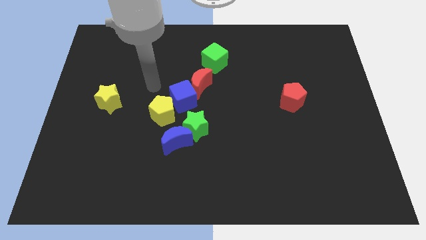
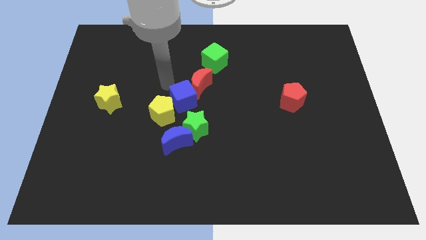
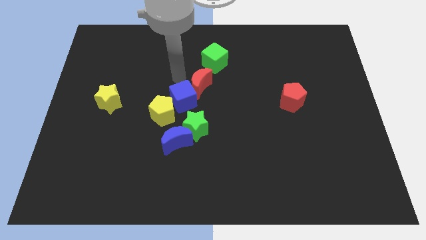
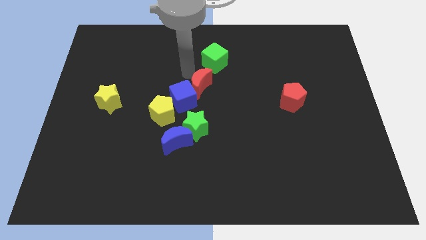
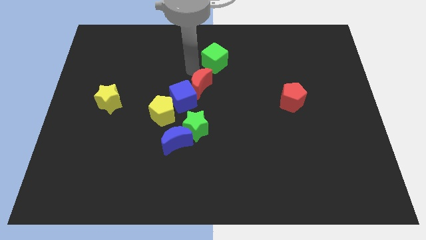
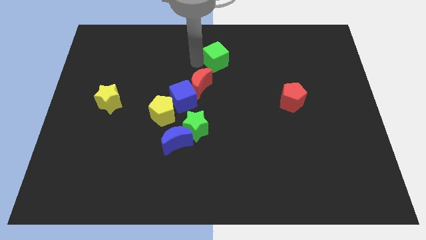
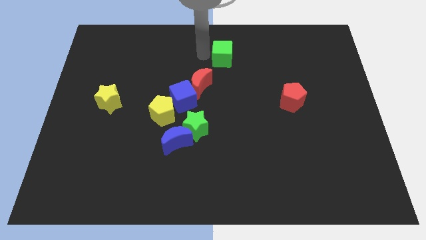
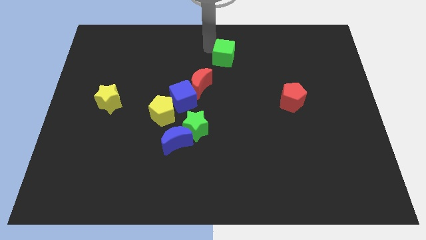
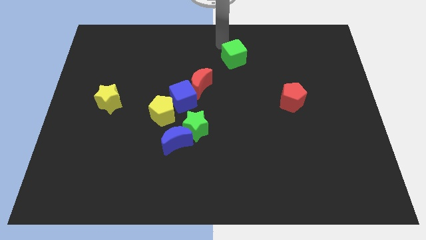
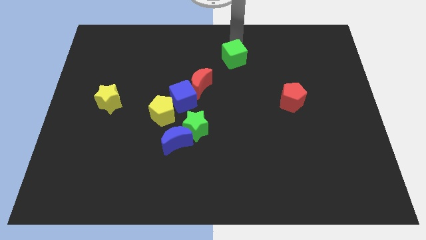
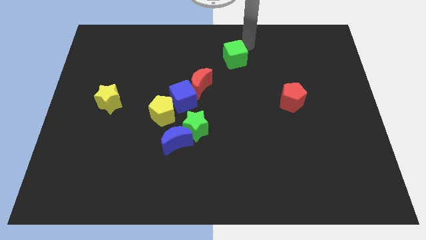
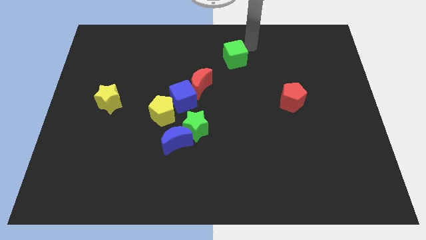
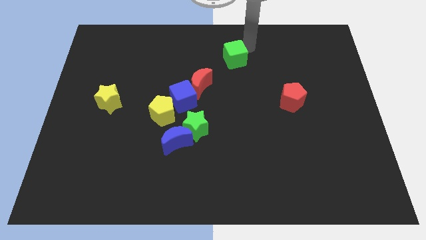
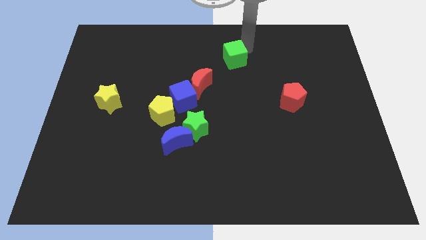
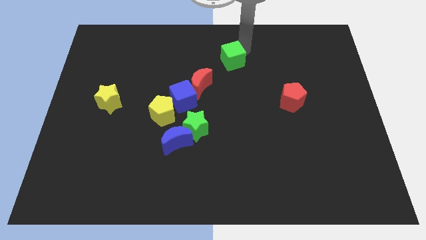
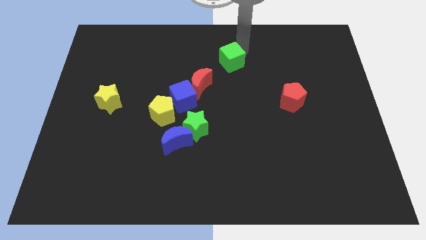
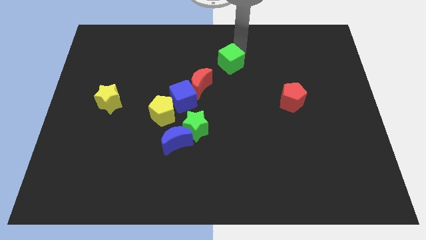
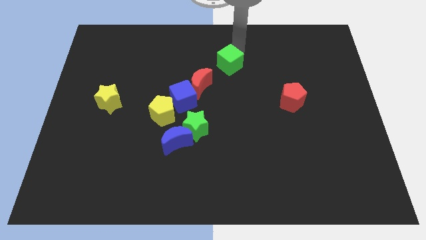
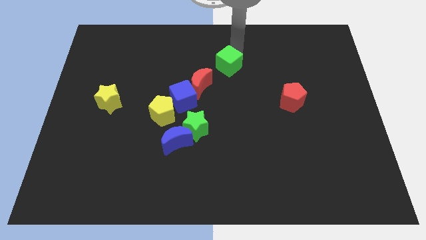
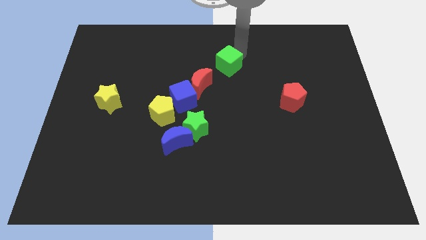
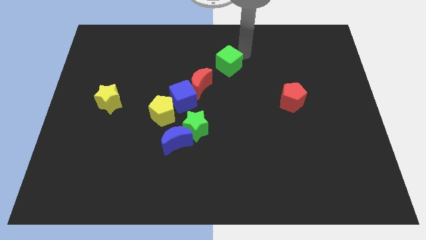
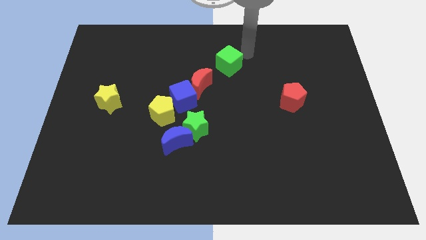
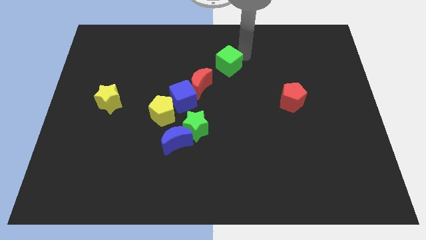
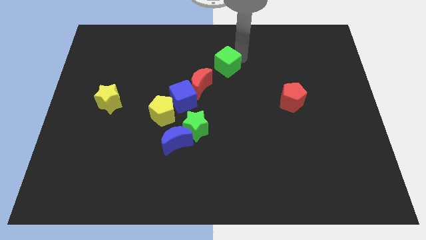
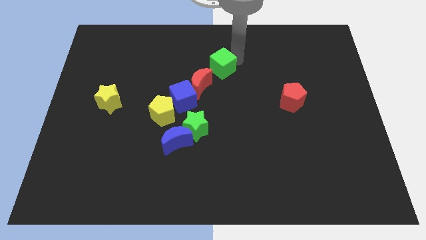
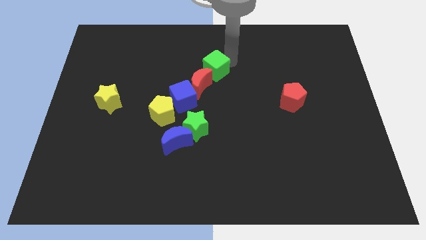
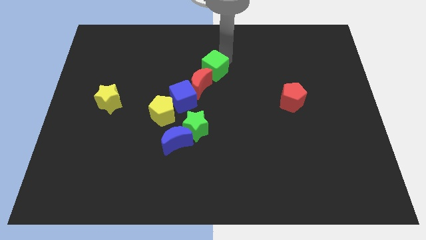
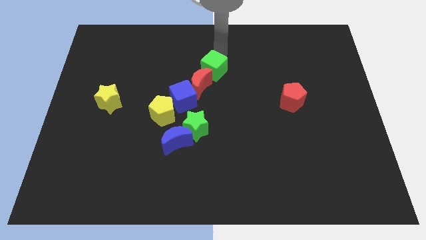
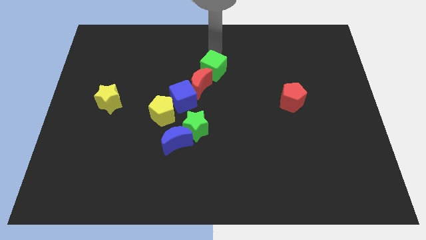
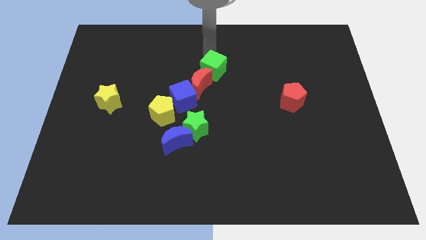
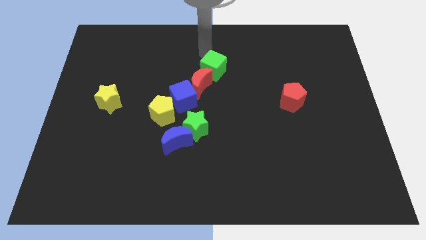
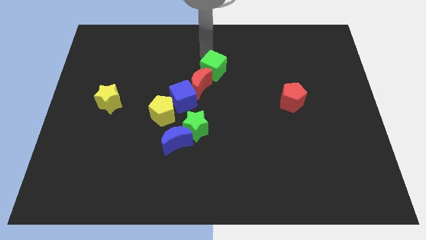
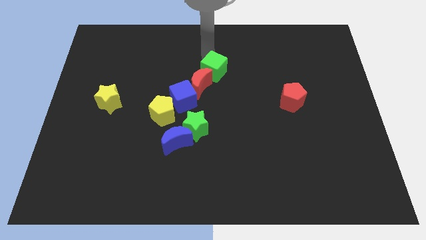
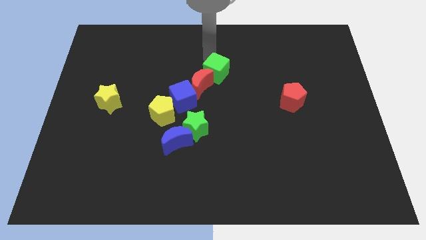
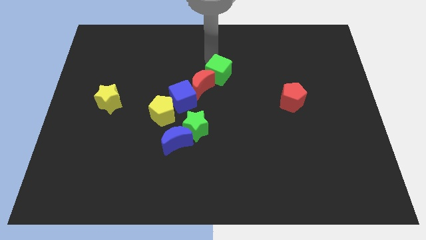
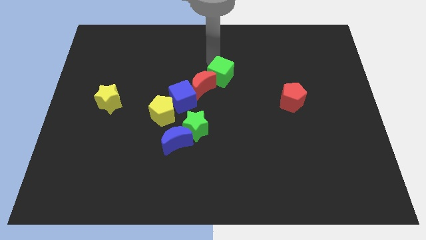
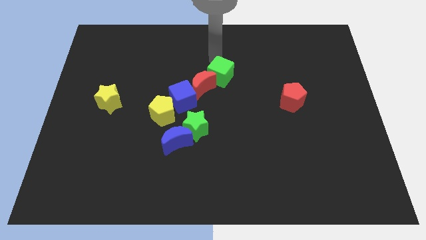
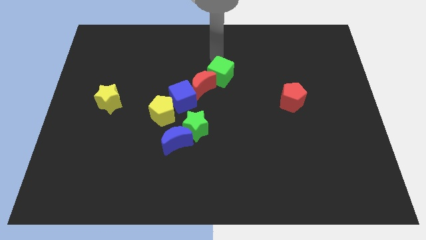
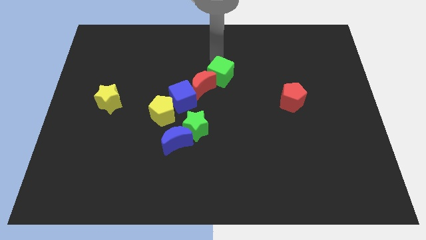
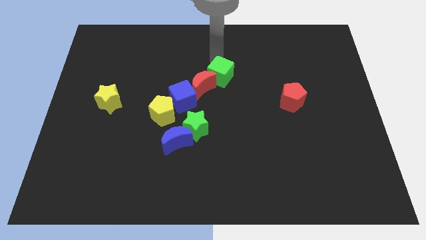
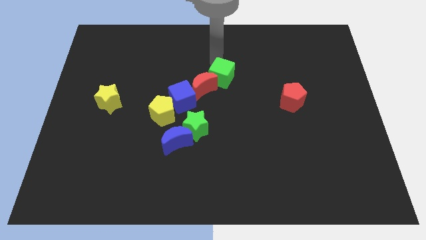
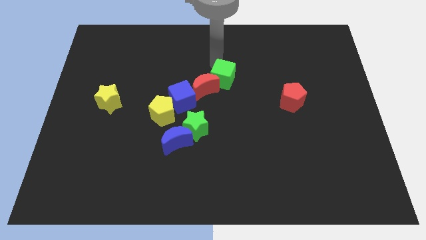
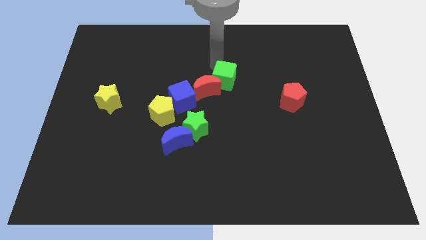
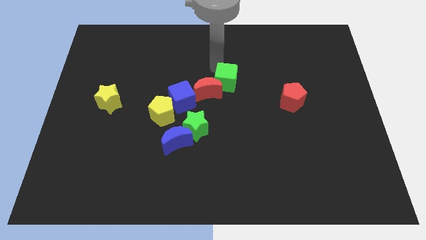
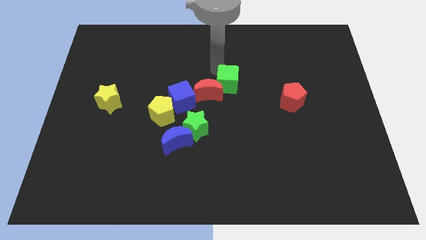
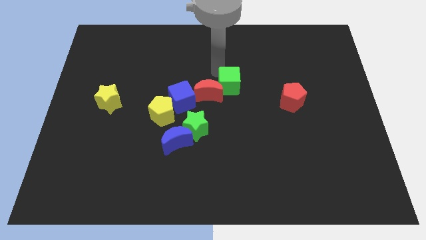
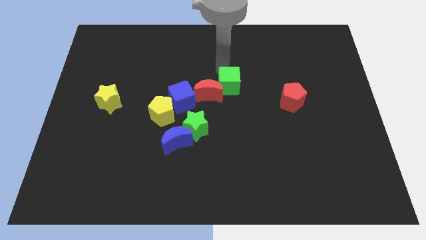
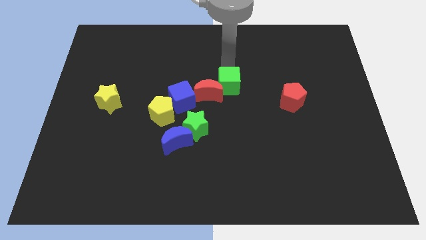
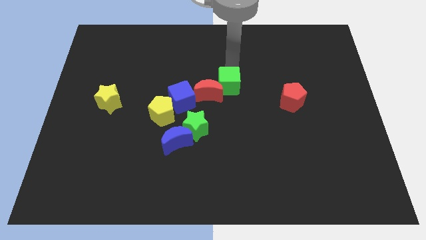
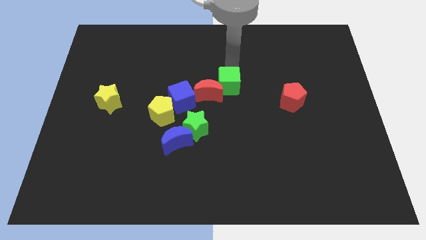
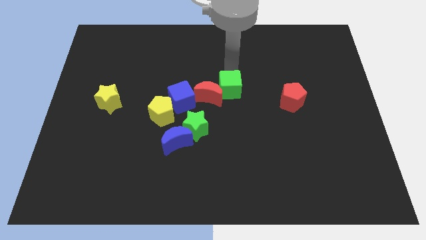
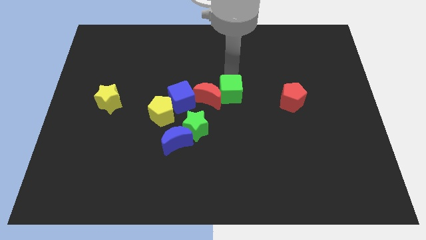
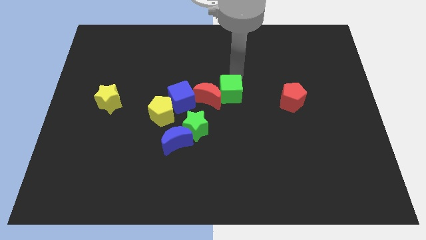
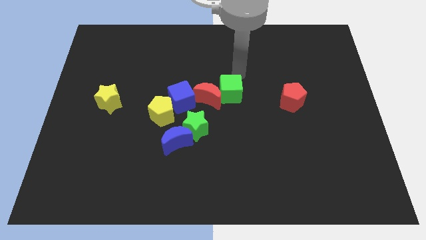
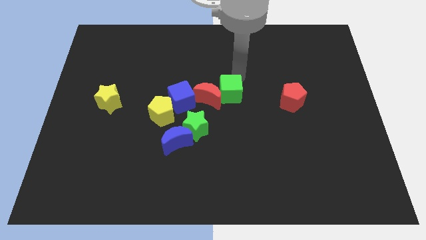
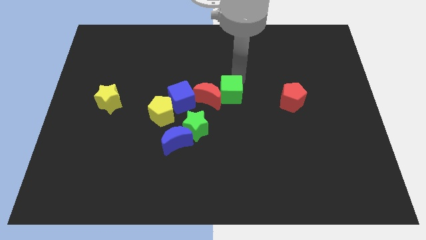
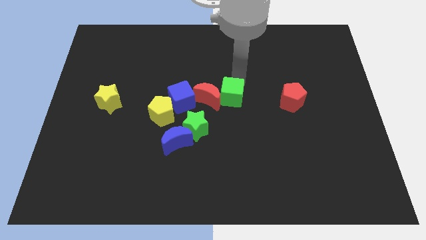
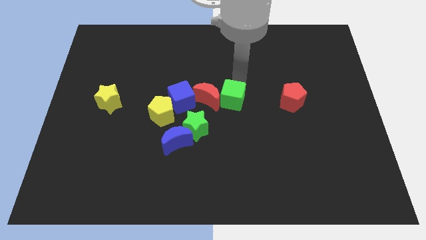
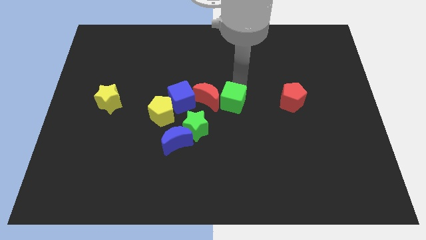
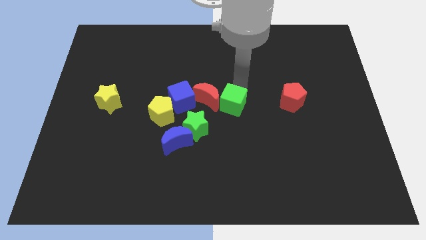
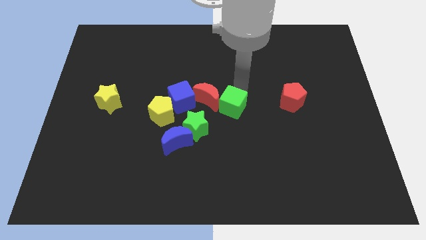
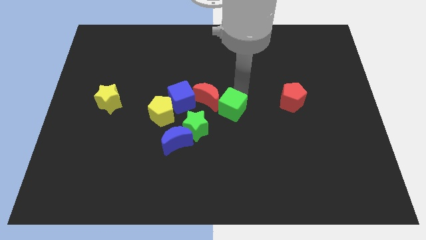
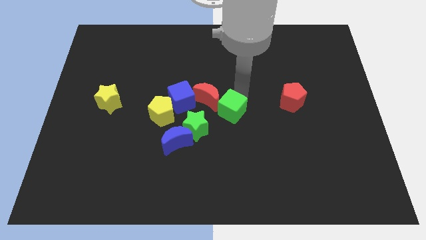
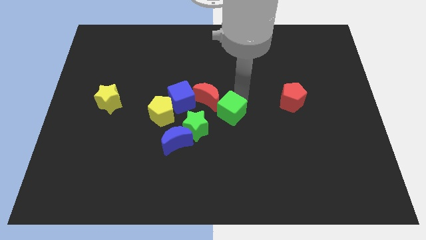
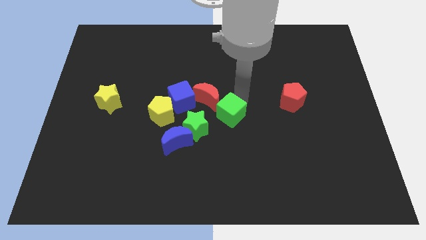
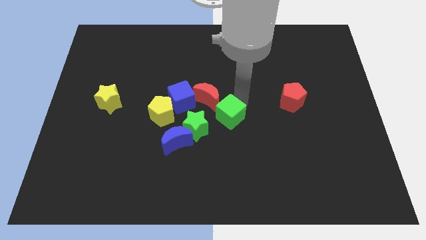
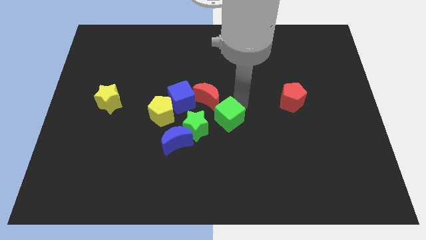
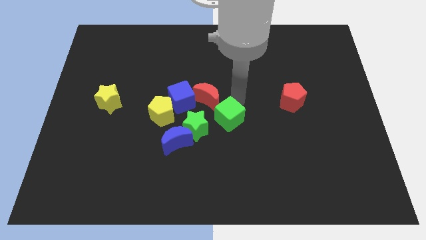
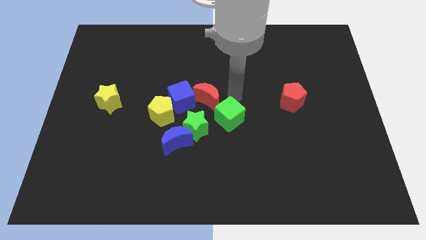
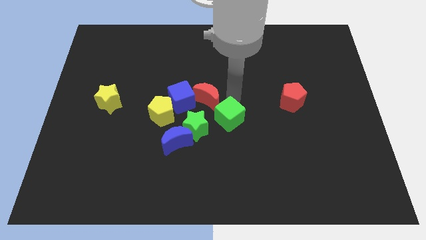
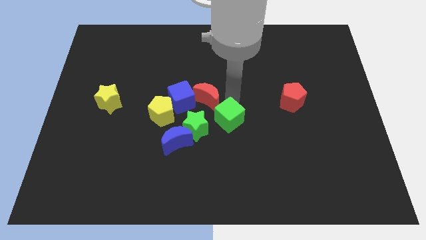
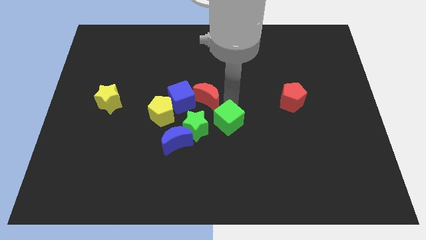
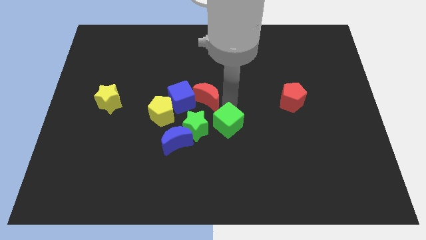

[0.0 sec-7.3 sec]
slide the green cube to the right of the blue moon

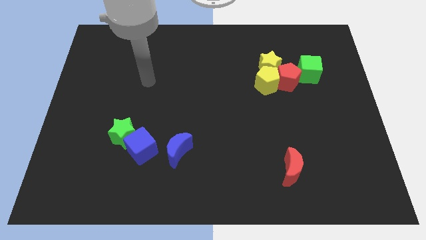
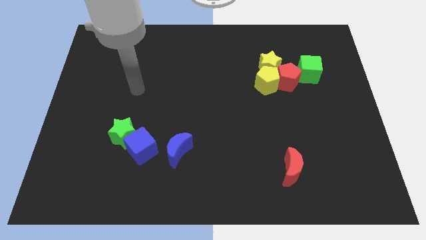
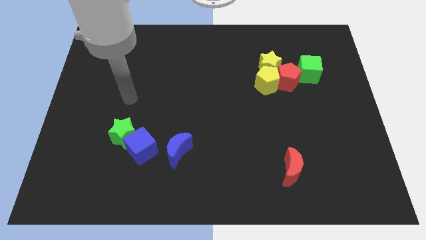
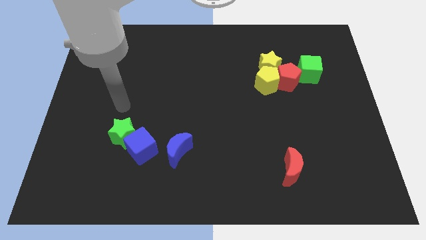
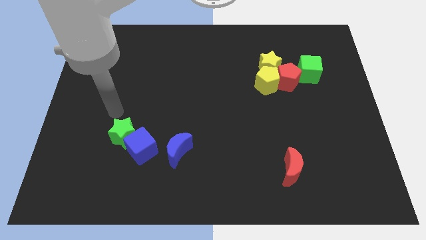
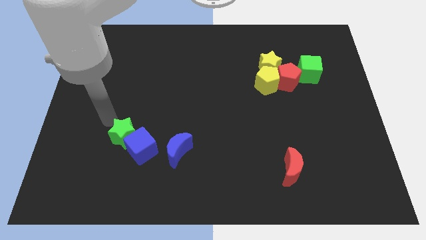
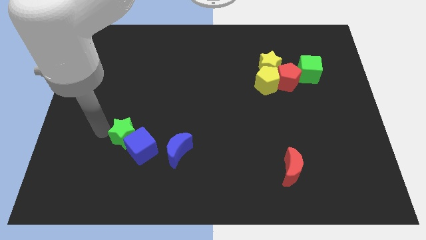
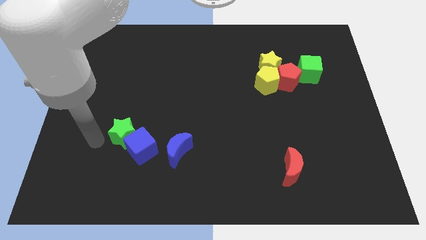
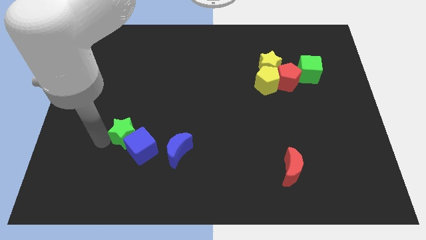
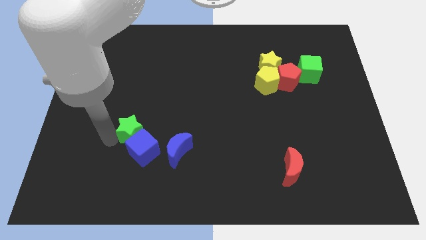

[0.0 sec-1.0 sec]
move the green star to the top left side of the blue moon
